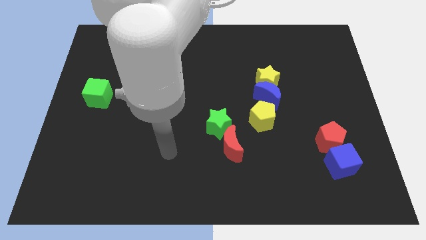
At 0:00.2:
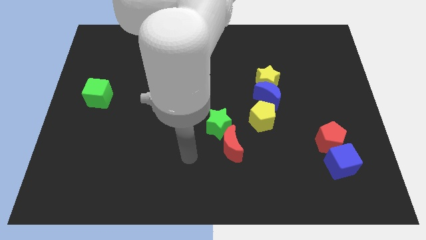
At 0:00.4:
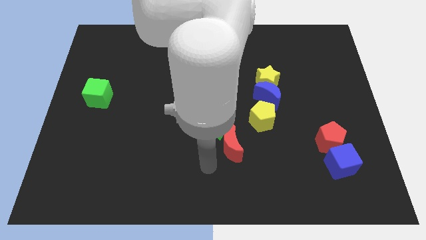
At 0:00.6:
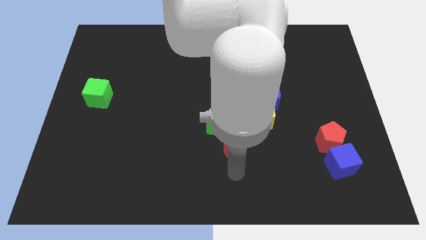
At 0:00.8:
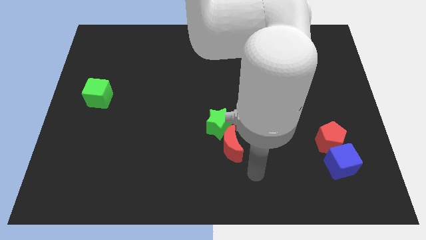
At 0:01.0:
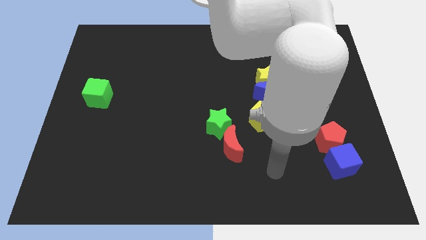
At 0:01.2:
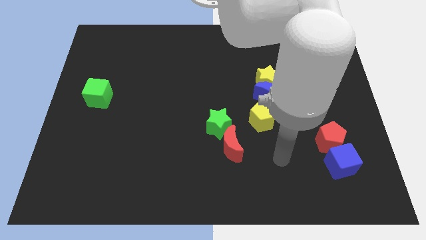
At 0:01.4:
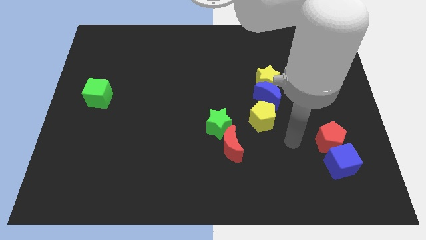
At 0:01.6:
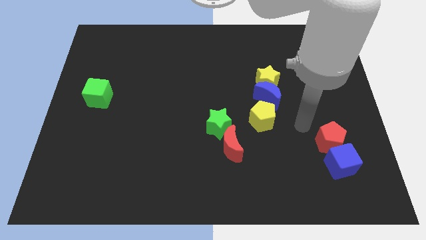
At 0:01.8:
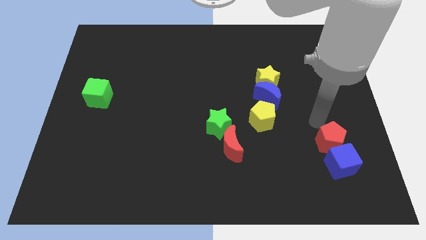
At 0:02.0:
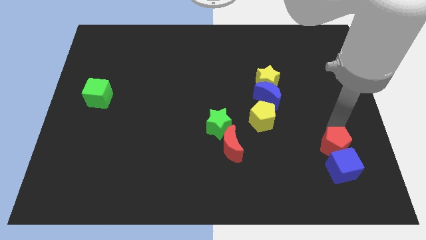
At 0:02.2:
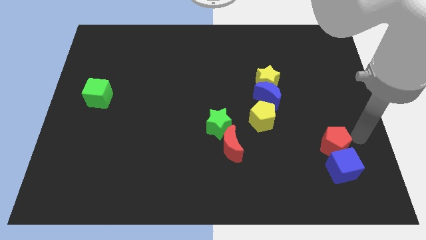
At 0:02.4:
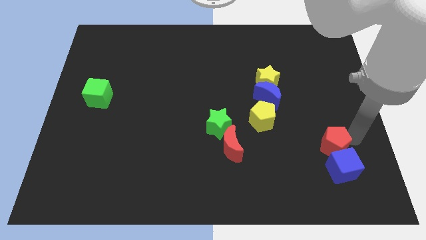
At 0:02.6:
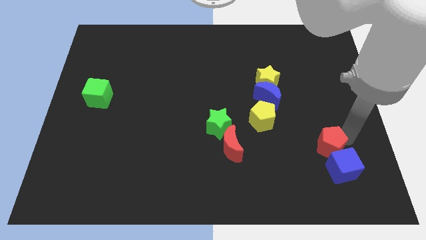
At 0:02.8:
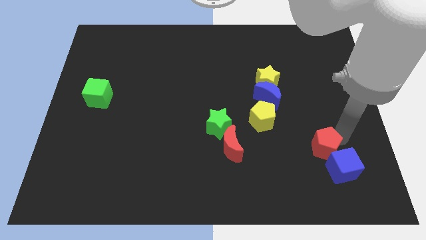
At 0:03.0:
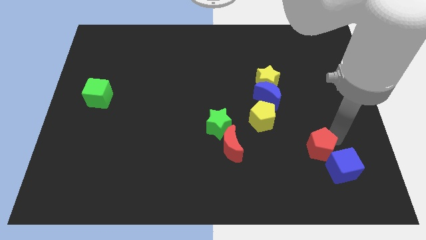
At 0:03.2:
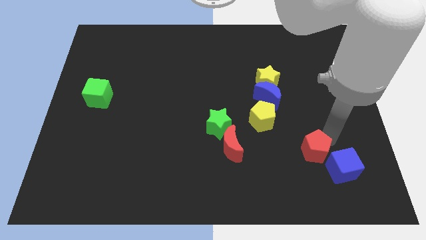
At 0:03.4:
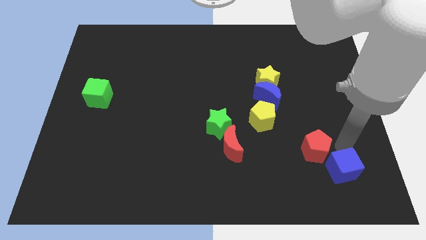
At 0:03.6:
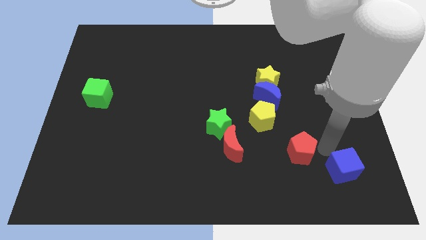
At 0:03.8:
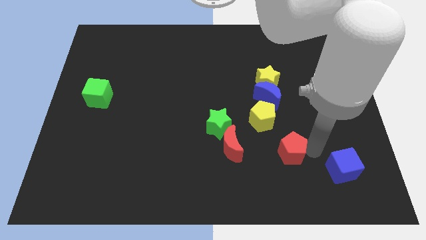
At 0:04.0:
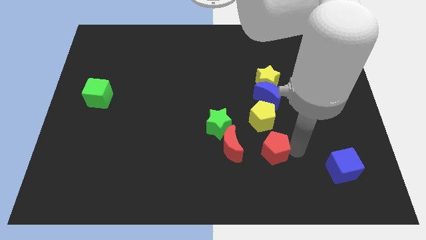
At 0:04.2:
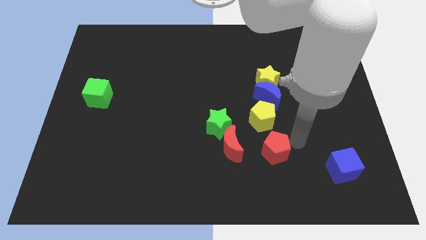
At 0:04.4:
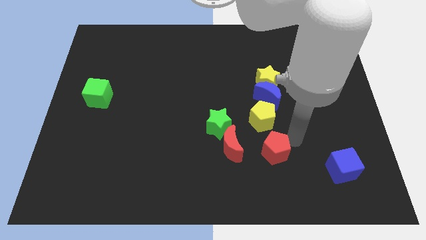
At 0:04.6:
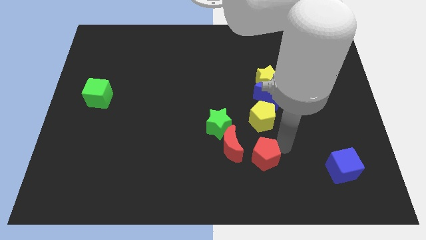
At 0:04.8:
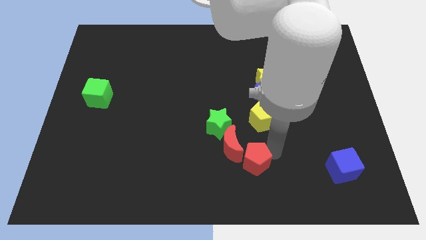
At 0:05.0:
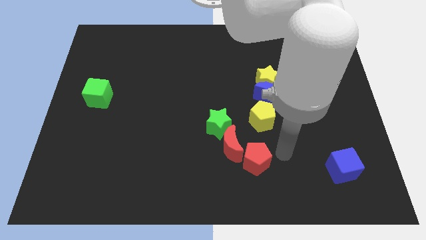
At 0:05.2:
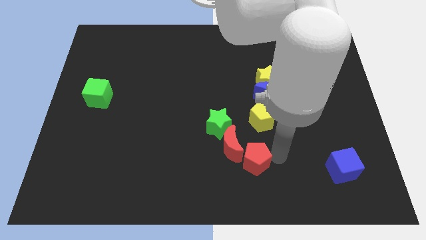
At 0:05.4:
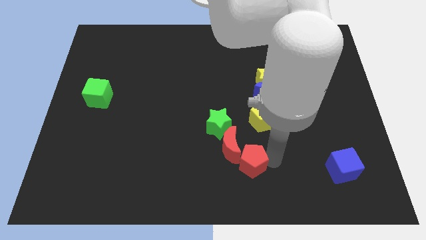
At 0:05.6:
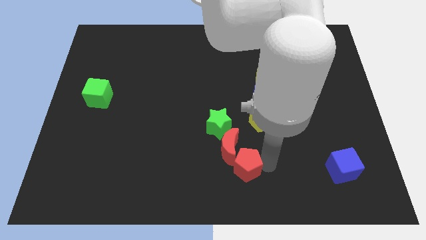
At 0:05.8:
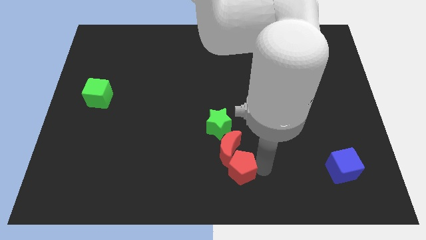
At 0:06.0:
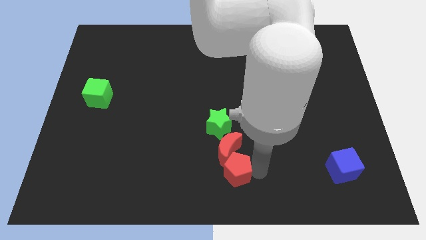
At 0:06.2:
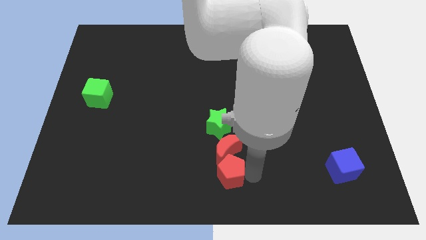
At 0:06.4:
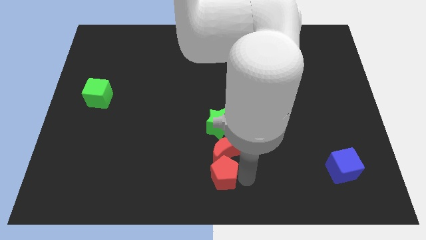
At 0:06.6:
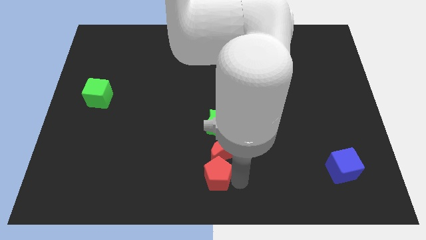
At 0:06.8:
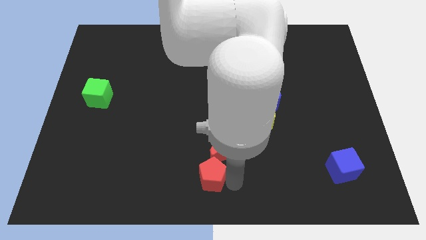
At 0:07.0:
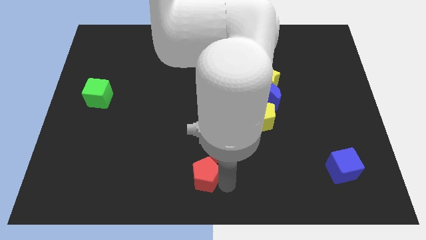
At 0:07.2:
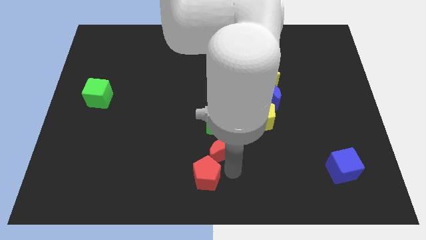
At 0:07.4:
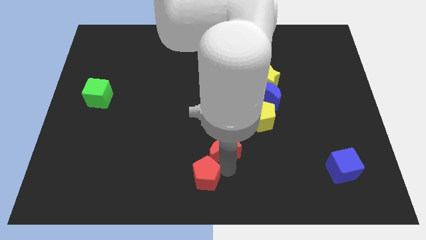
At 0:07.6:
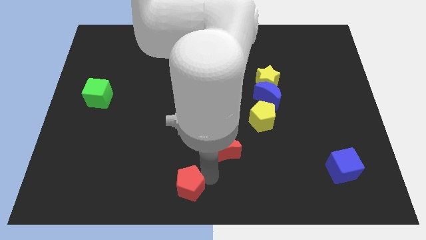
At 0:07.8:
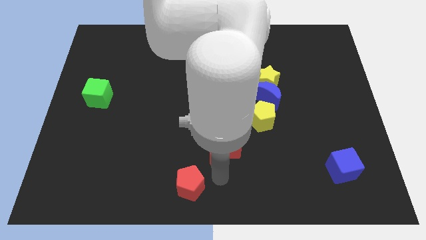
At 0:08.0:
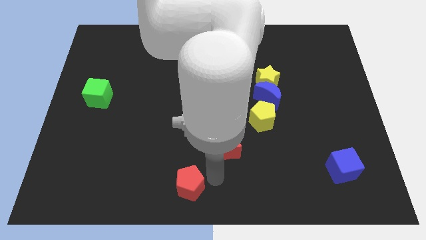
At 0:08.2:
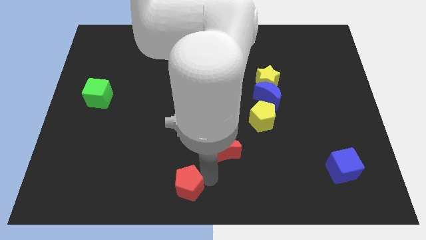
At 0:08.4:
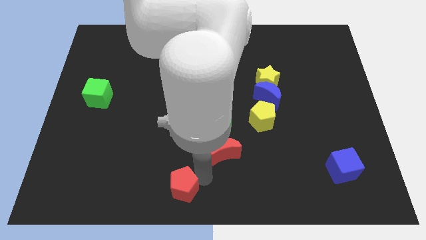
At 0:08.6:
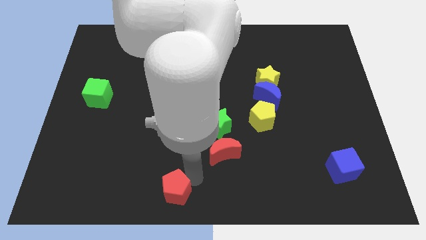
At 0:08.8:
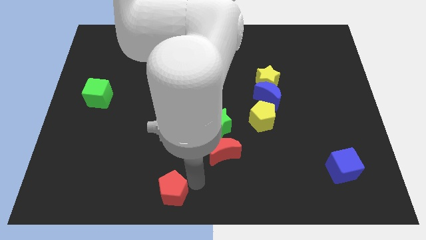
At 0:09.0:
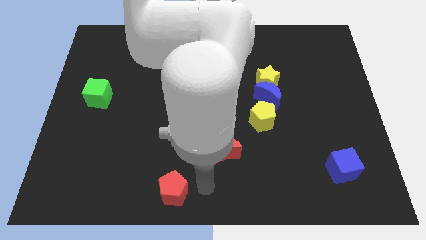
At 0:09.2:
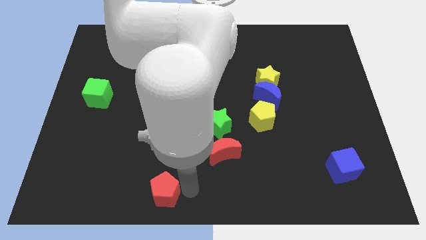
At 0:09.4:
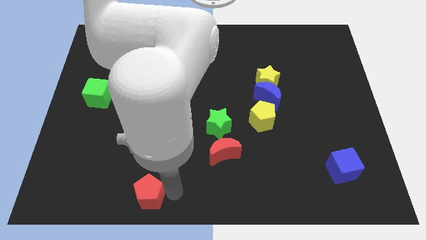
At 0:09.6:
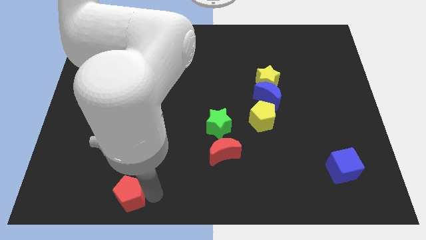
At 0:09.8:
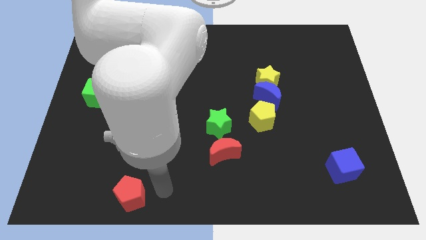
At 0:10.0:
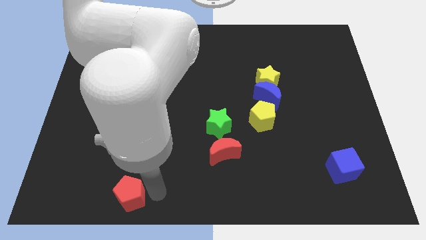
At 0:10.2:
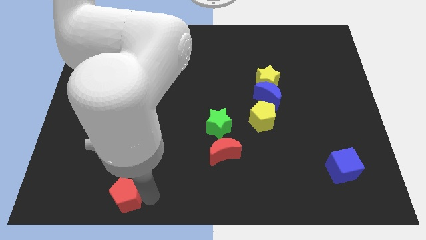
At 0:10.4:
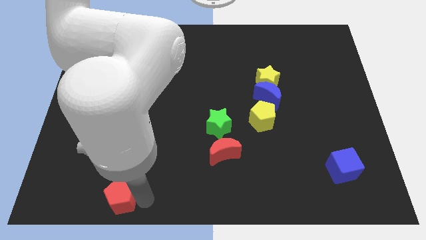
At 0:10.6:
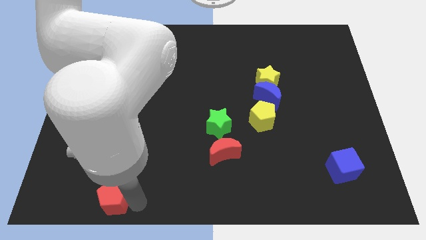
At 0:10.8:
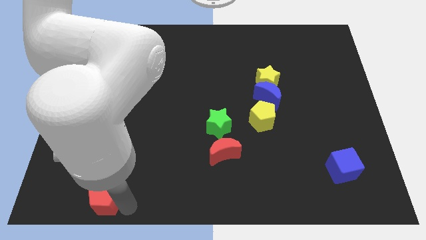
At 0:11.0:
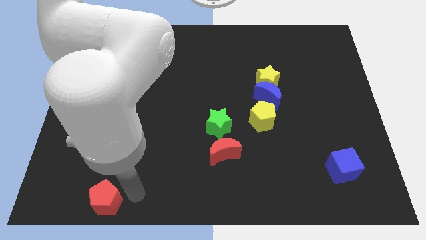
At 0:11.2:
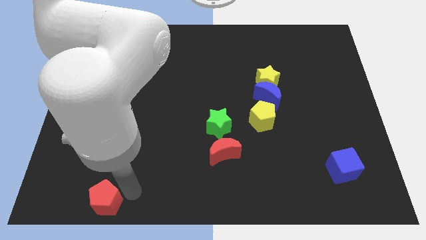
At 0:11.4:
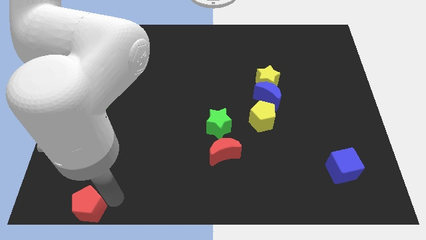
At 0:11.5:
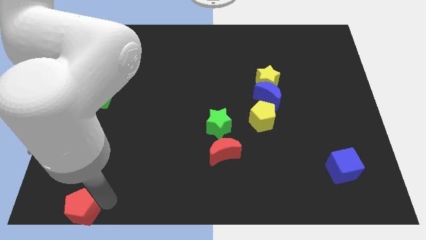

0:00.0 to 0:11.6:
push the red pentagon to the lower left corner

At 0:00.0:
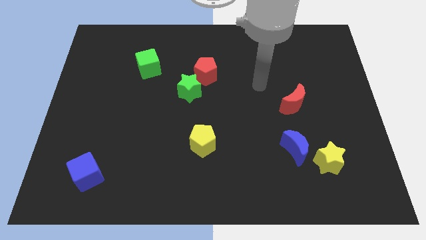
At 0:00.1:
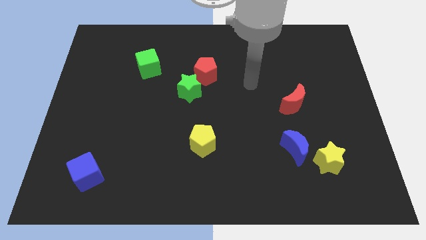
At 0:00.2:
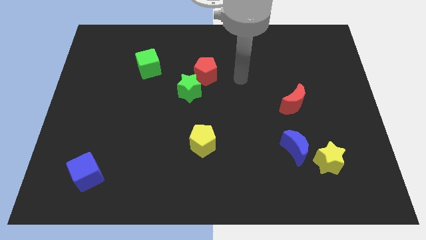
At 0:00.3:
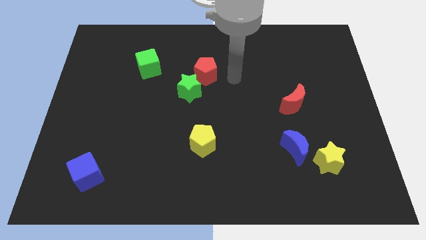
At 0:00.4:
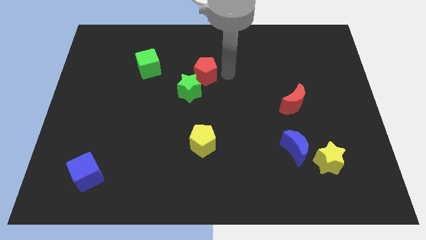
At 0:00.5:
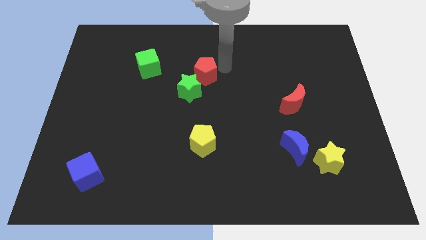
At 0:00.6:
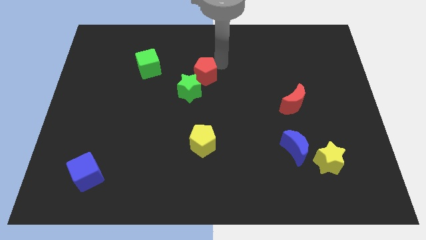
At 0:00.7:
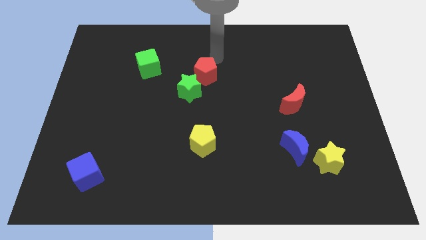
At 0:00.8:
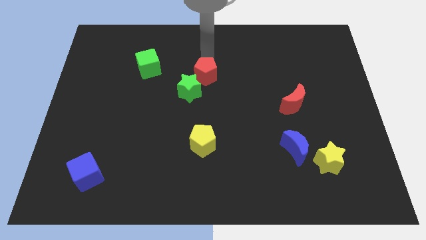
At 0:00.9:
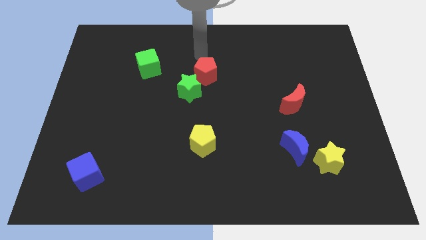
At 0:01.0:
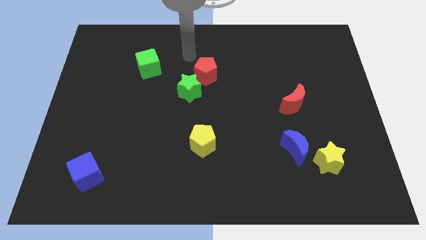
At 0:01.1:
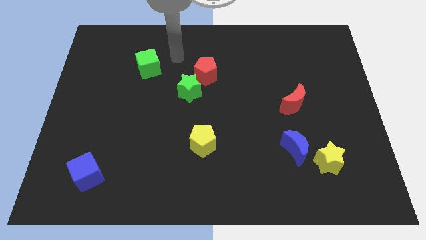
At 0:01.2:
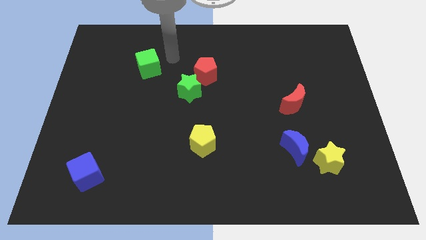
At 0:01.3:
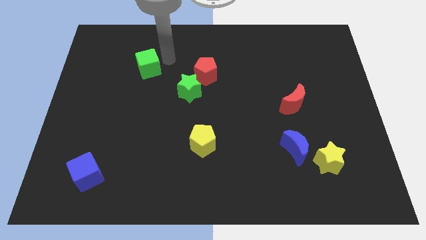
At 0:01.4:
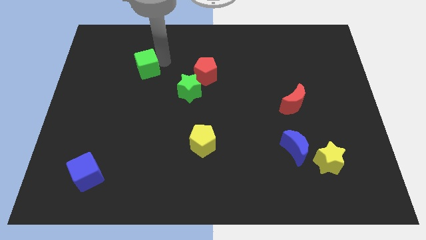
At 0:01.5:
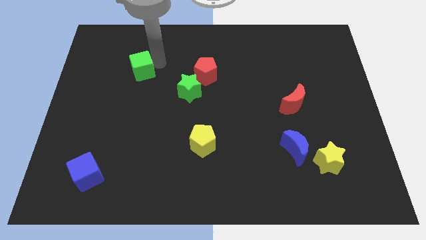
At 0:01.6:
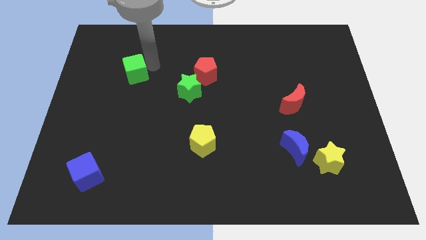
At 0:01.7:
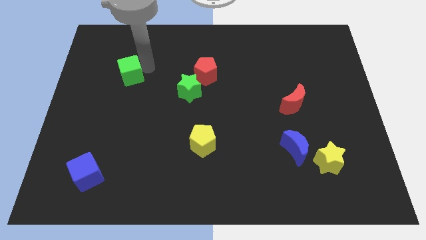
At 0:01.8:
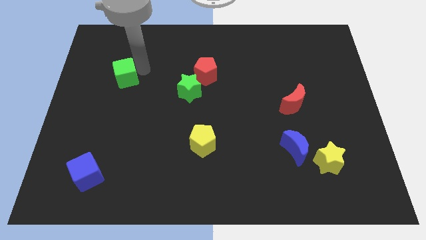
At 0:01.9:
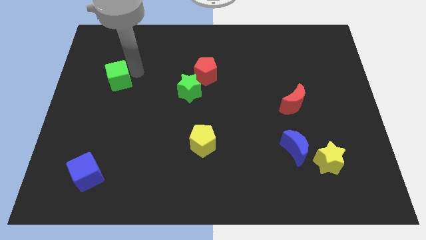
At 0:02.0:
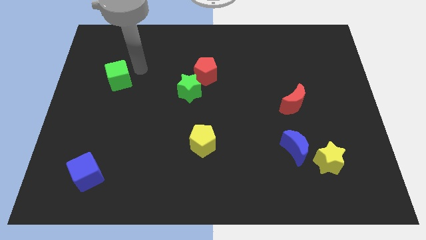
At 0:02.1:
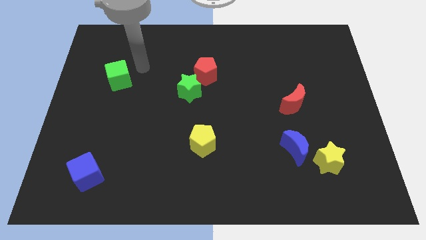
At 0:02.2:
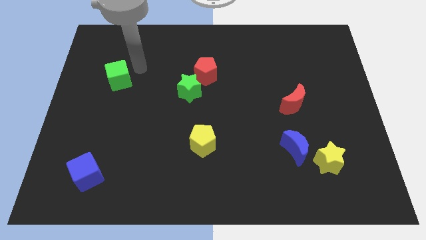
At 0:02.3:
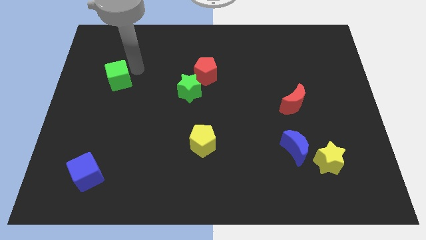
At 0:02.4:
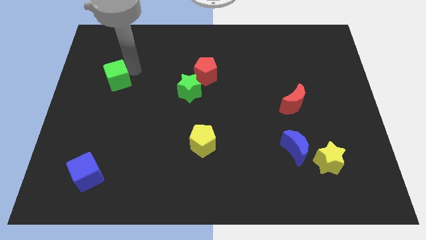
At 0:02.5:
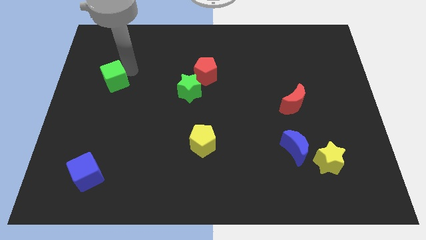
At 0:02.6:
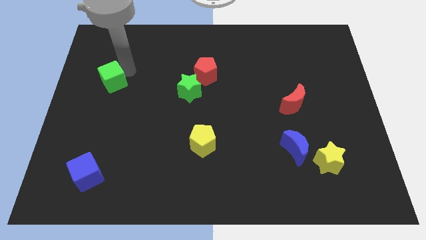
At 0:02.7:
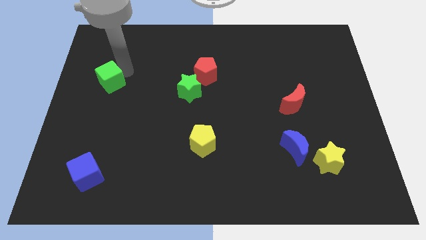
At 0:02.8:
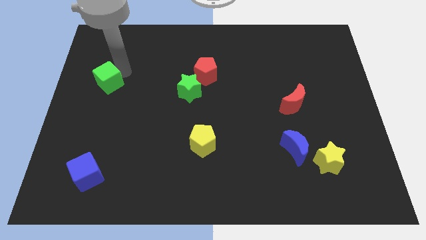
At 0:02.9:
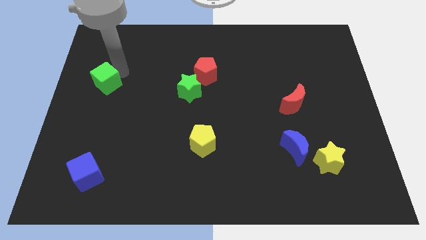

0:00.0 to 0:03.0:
put the green cube to the left side
